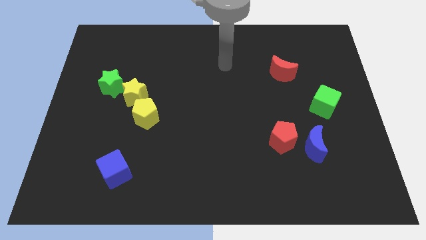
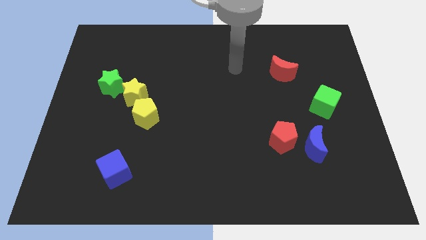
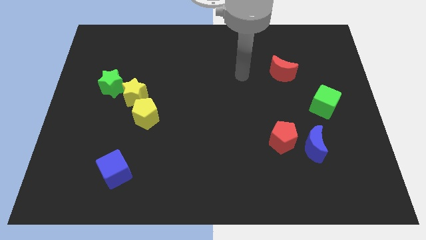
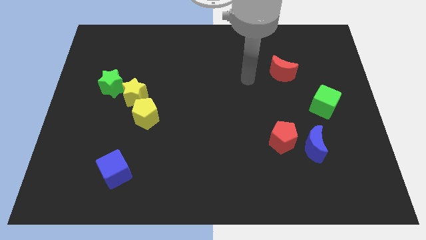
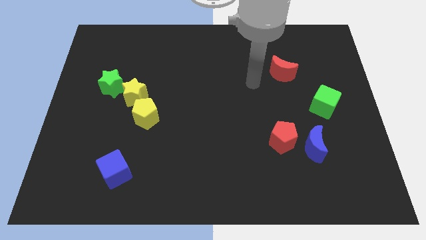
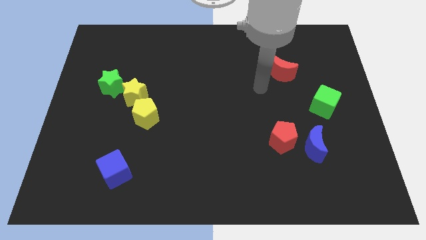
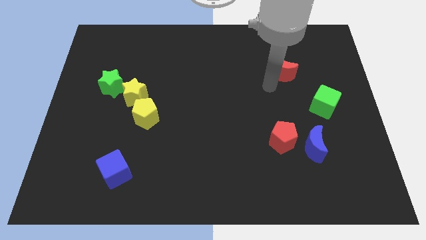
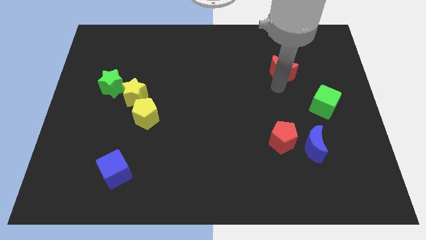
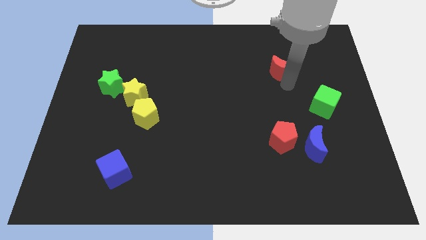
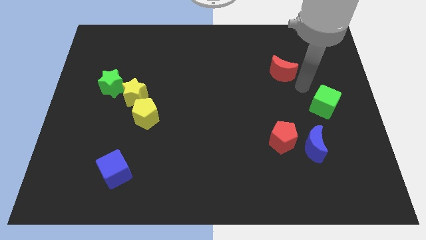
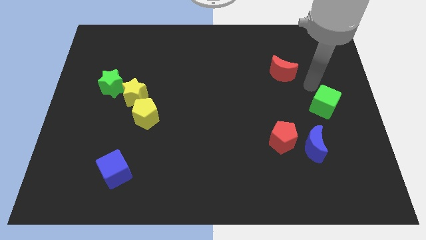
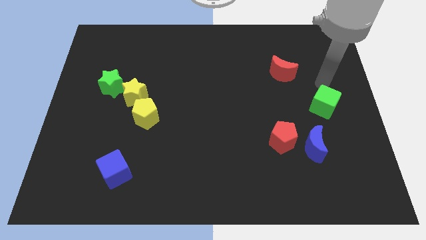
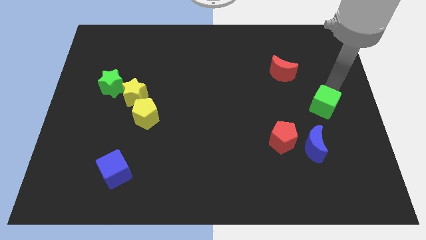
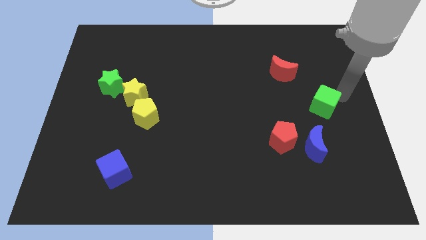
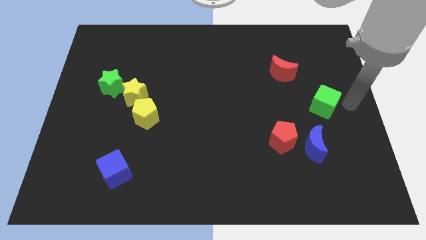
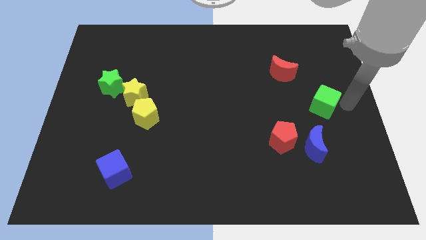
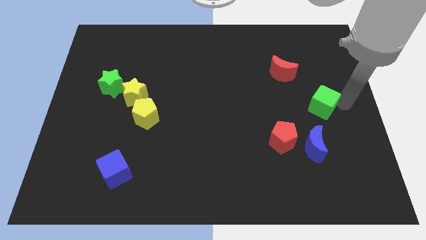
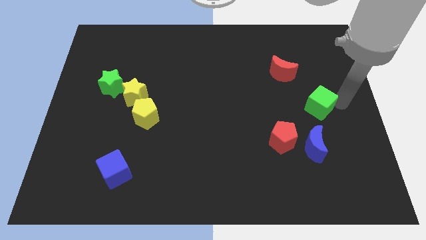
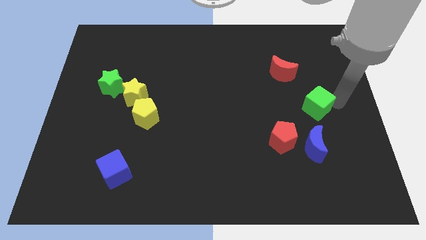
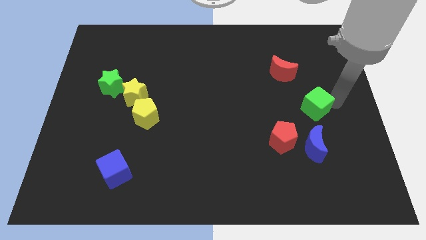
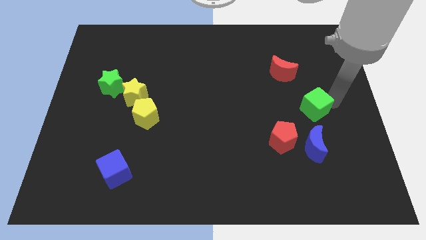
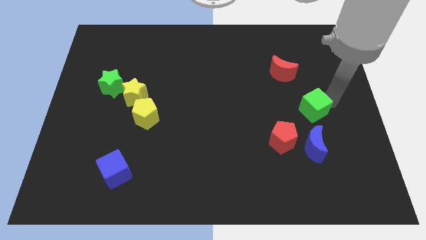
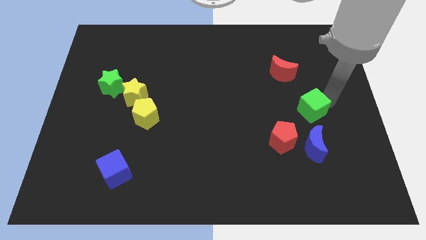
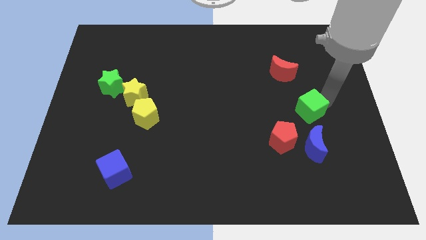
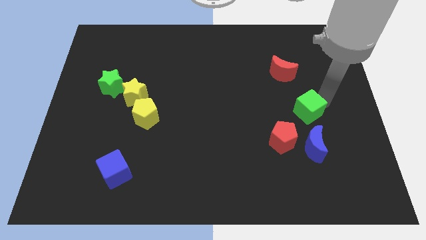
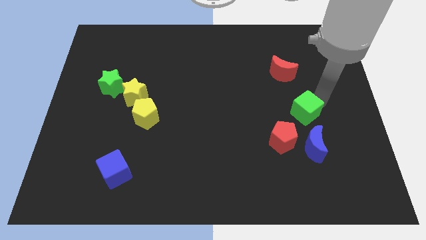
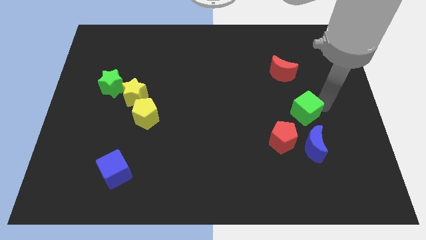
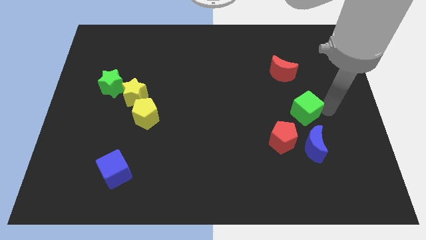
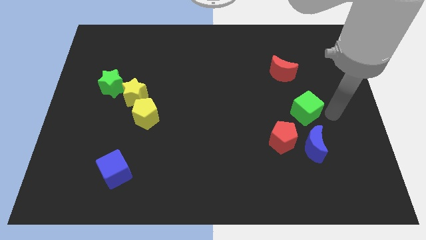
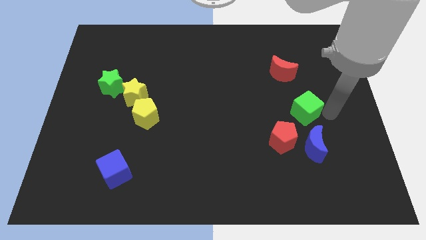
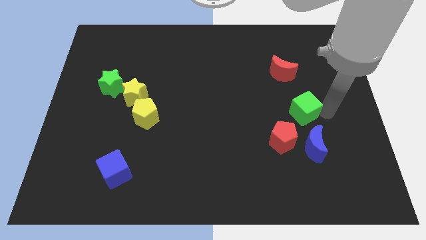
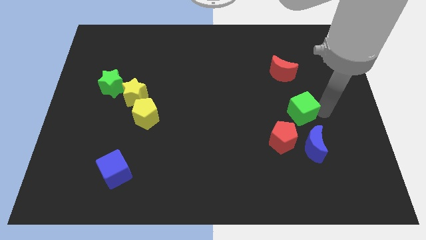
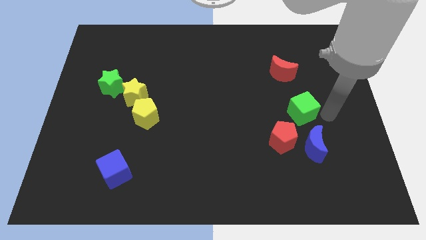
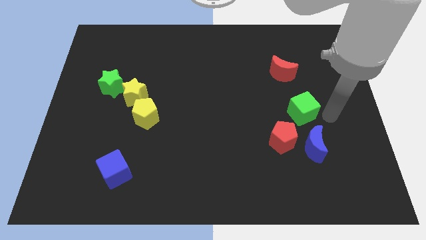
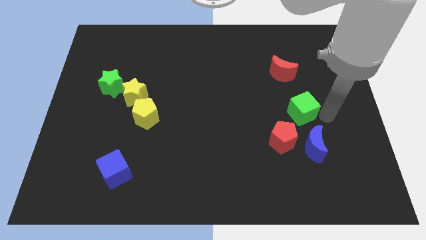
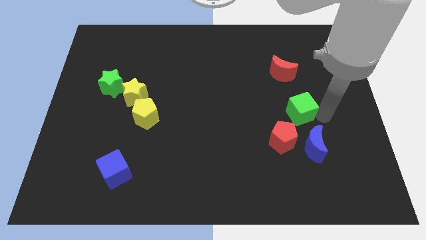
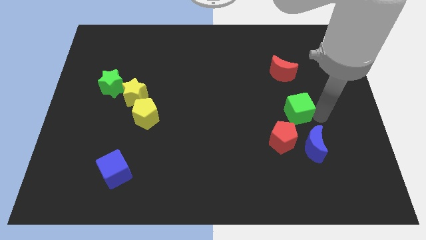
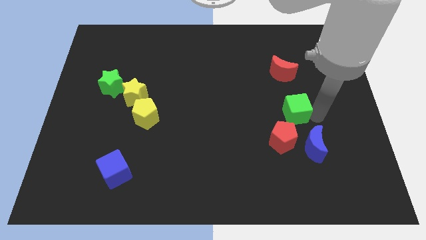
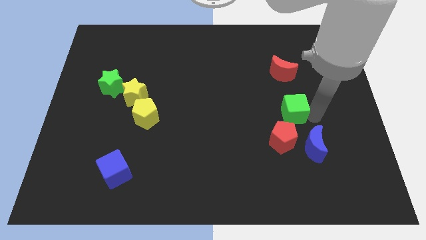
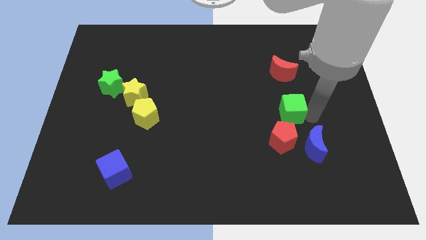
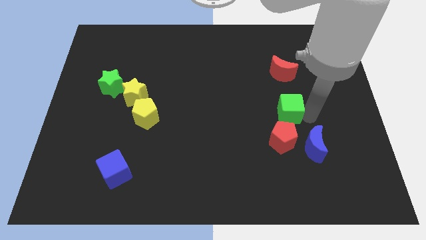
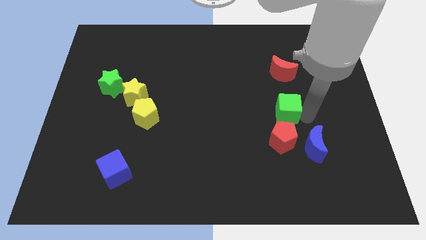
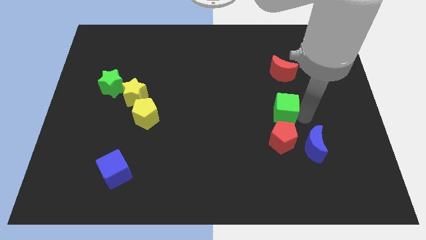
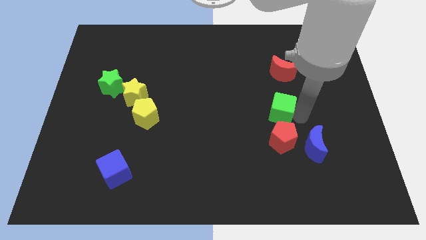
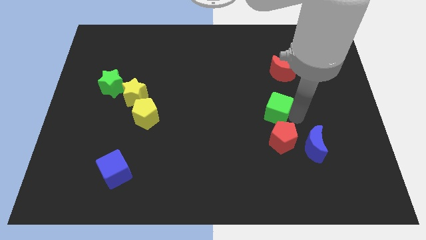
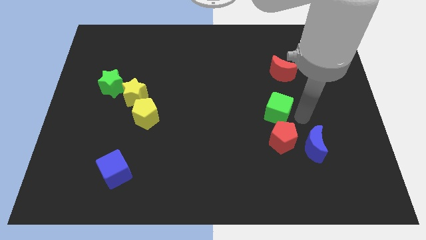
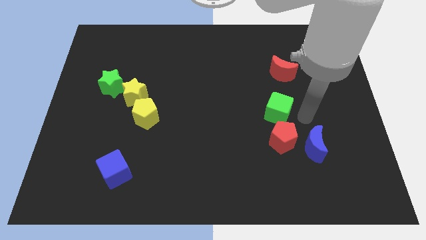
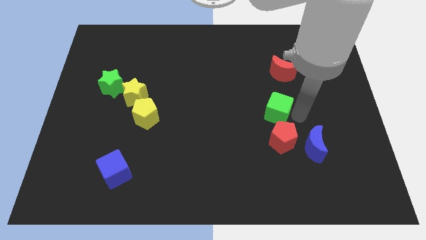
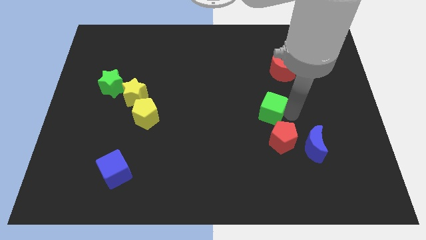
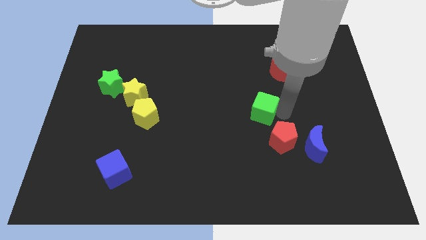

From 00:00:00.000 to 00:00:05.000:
slide the green cube to the center

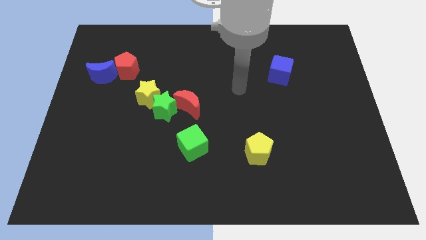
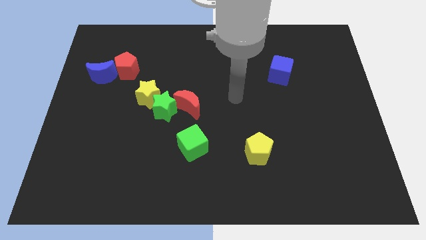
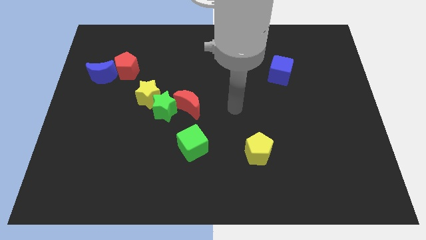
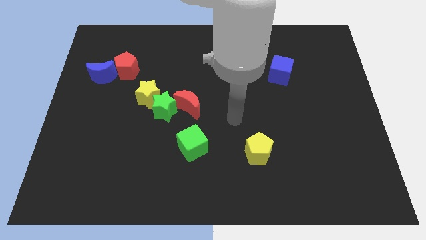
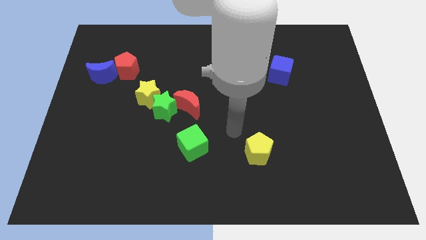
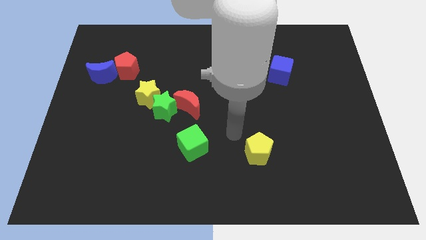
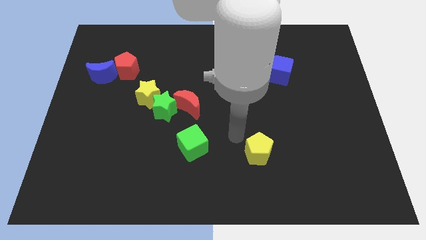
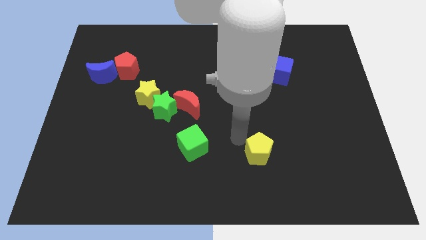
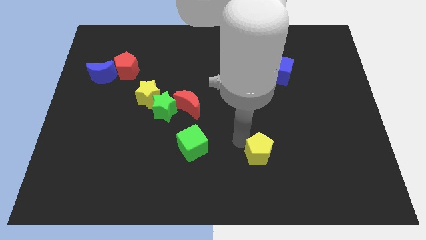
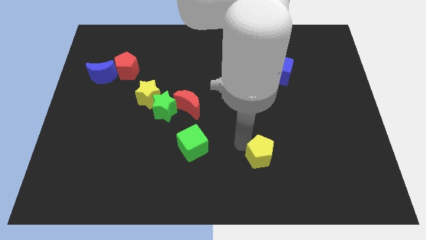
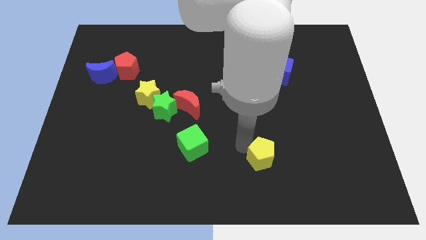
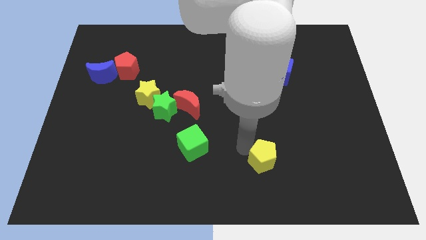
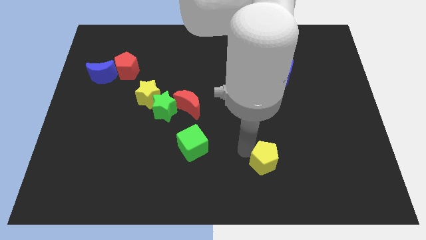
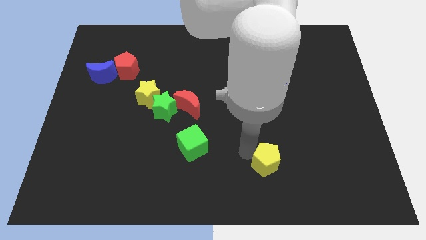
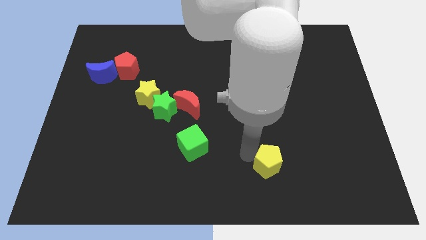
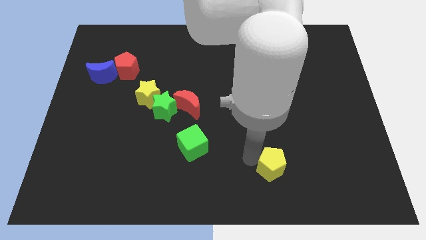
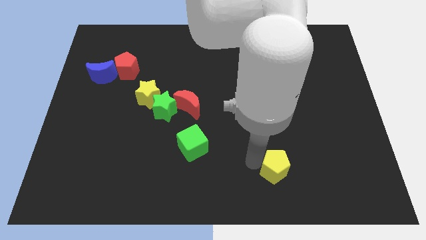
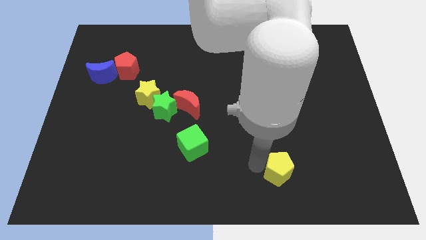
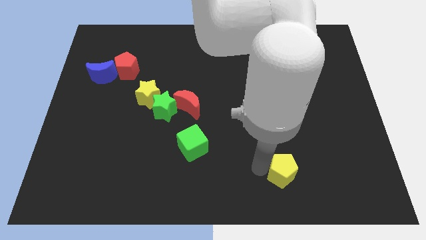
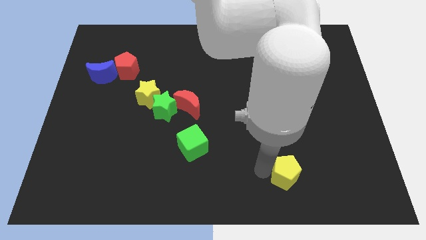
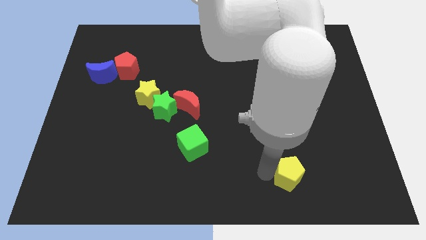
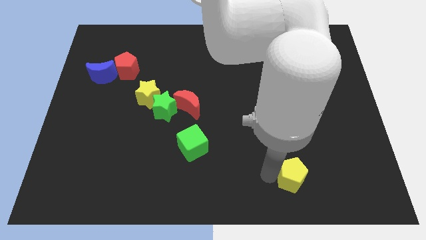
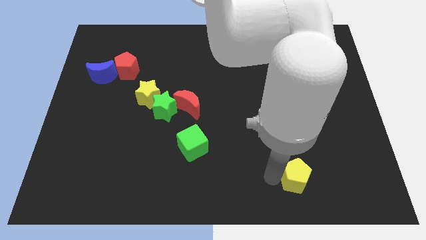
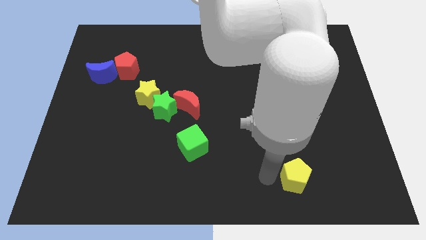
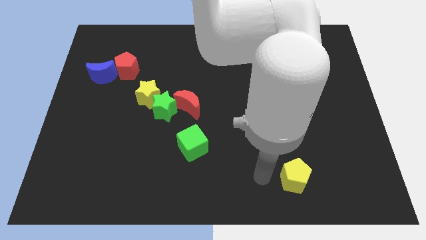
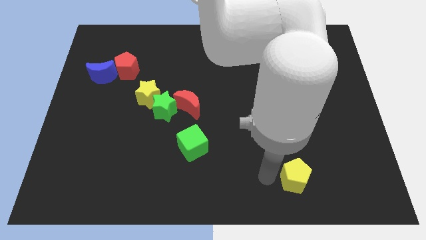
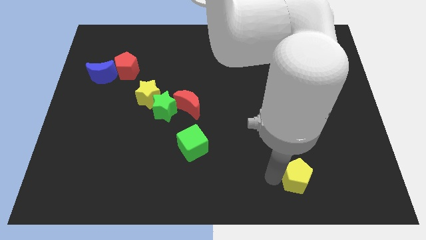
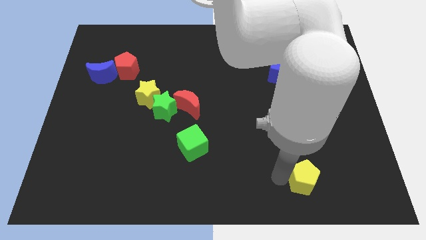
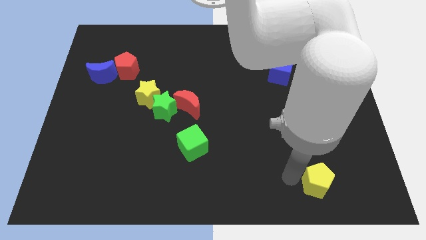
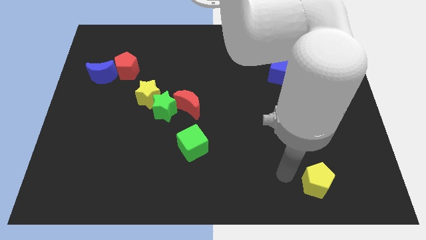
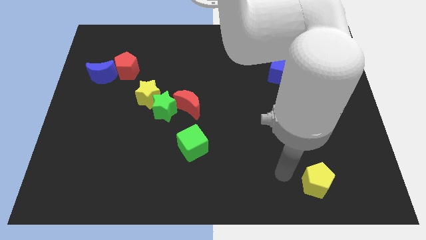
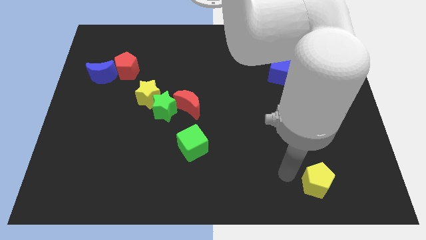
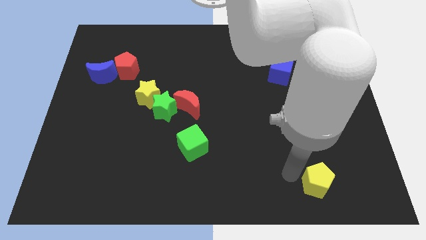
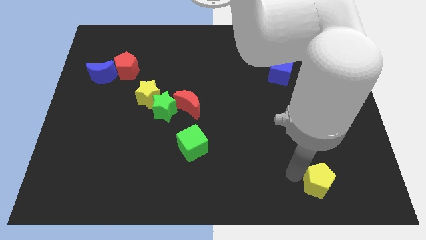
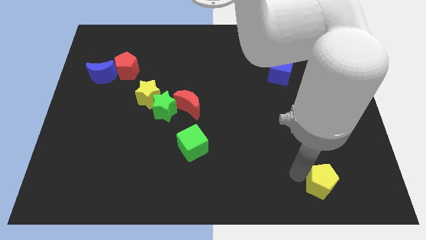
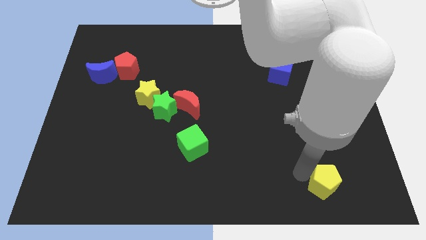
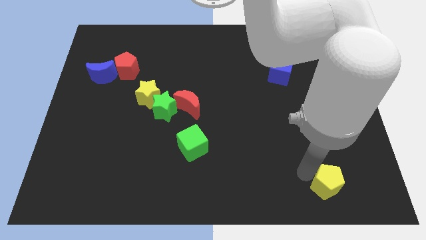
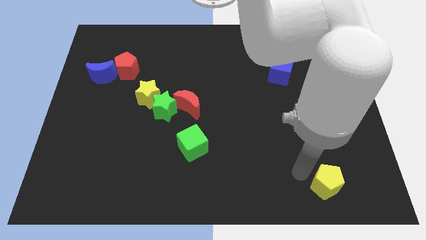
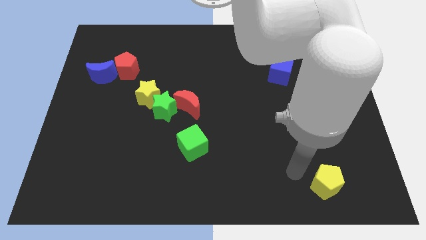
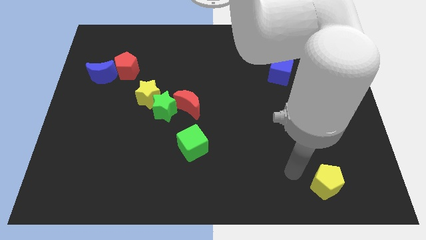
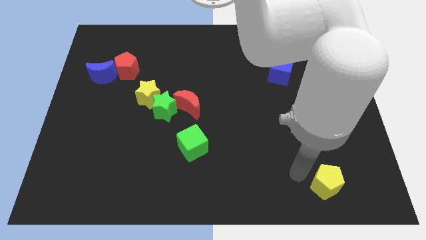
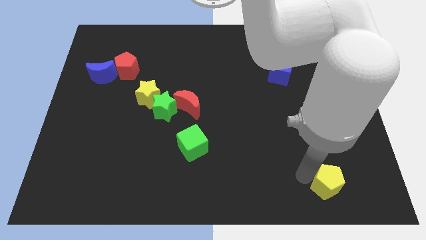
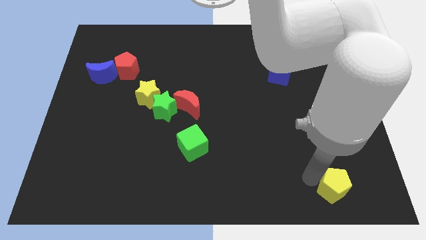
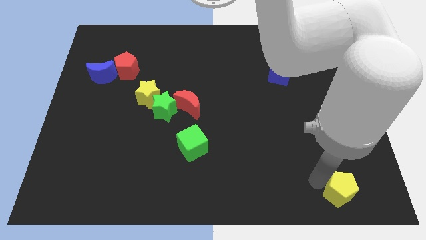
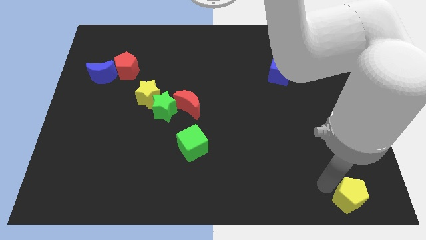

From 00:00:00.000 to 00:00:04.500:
push the yellow pentagon to the lower right corner
